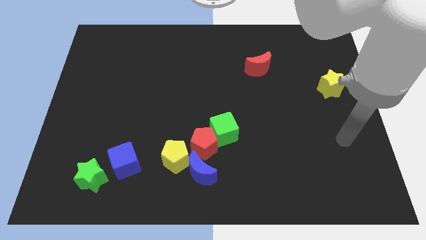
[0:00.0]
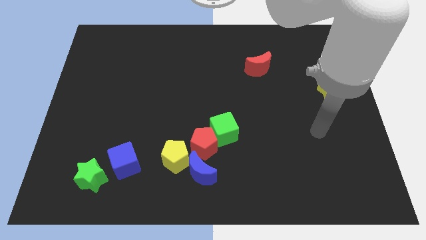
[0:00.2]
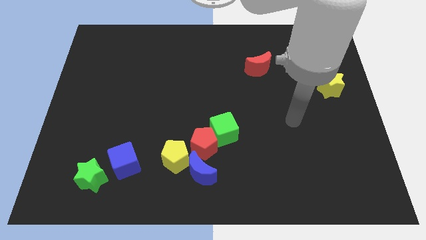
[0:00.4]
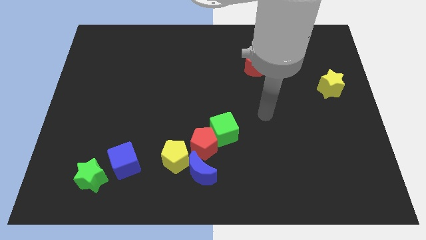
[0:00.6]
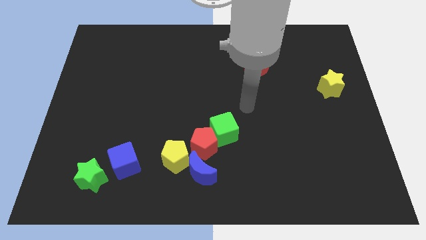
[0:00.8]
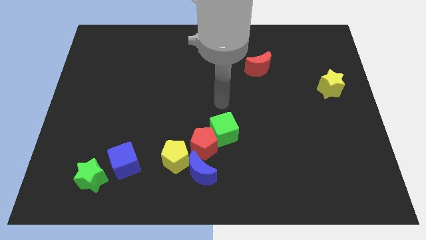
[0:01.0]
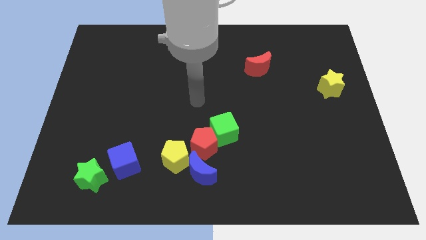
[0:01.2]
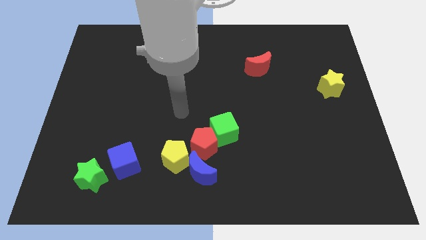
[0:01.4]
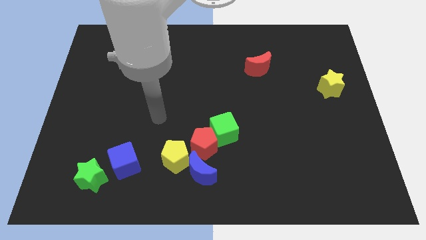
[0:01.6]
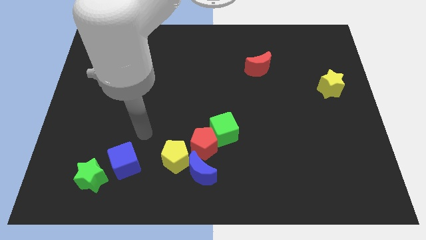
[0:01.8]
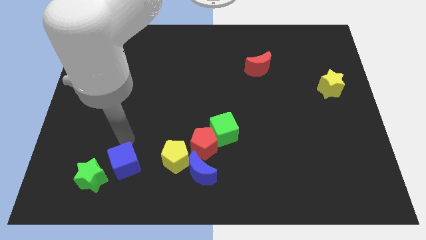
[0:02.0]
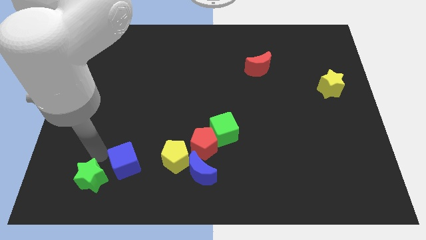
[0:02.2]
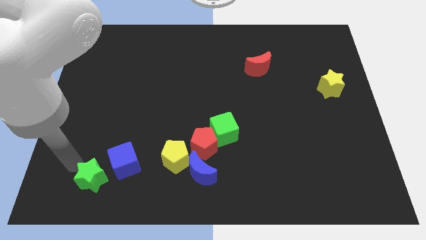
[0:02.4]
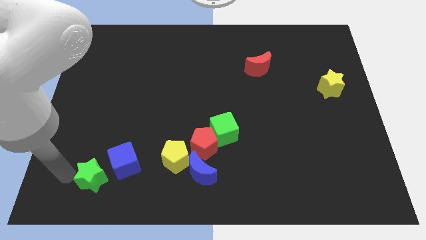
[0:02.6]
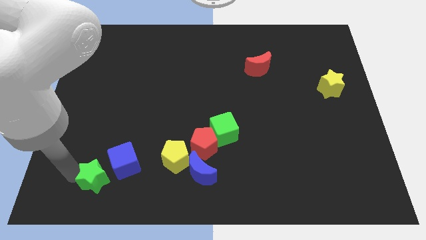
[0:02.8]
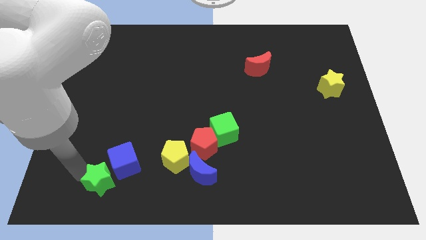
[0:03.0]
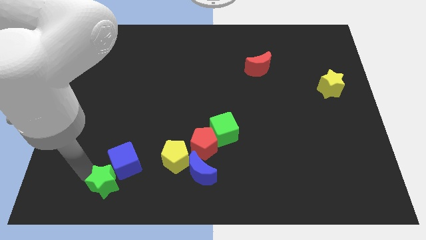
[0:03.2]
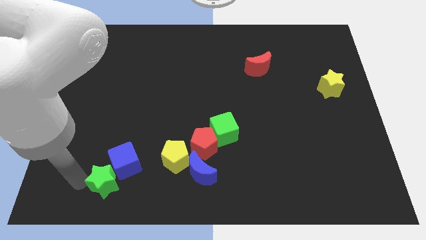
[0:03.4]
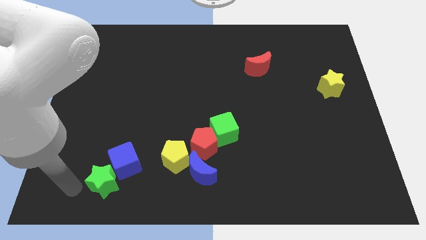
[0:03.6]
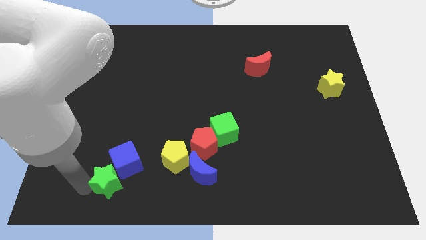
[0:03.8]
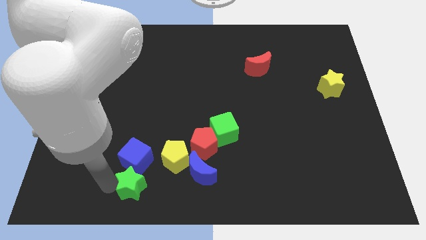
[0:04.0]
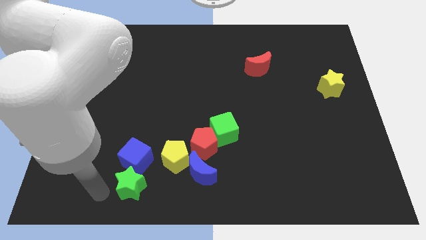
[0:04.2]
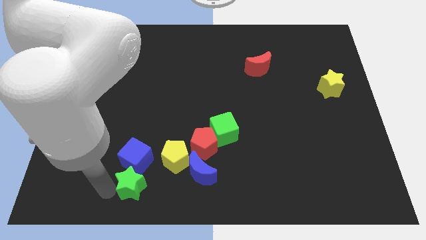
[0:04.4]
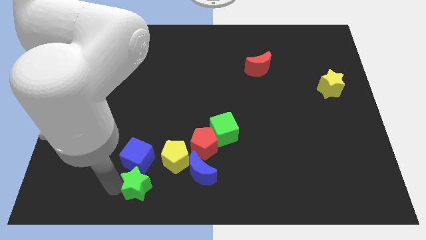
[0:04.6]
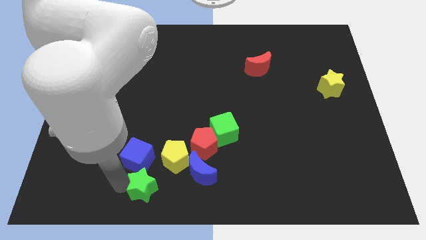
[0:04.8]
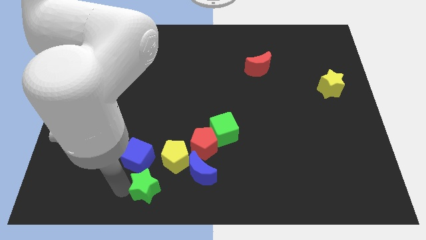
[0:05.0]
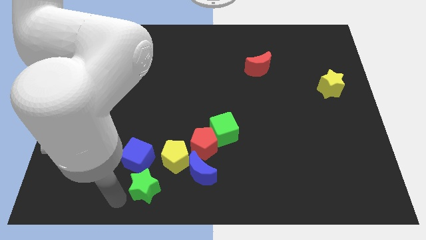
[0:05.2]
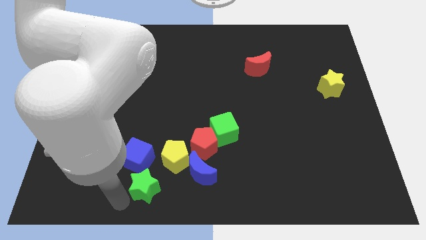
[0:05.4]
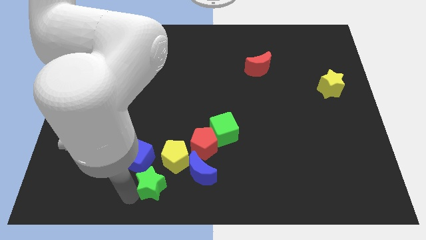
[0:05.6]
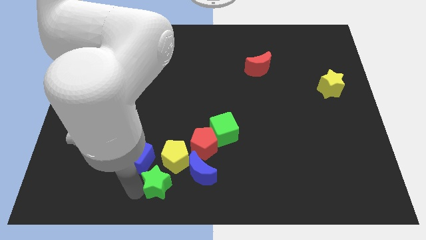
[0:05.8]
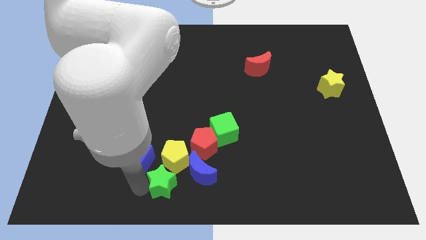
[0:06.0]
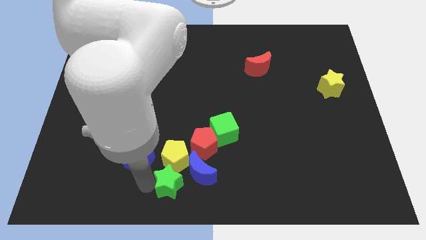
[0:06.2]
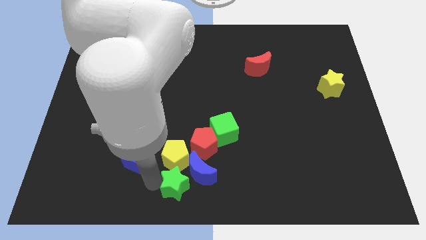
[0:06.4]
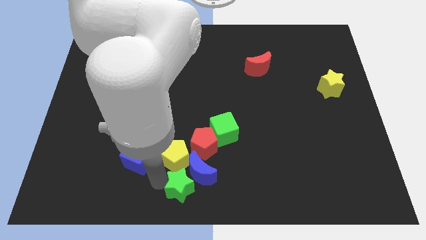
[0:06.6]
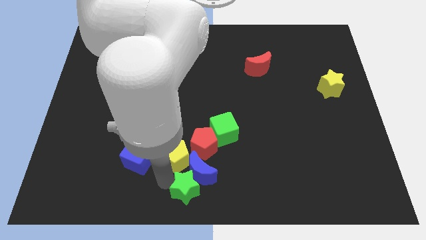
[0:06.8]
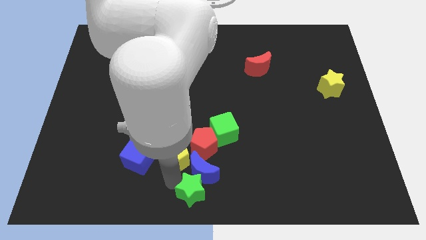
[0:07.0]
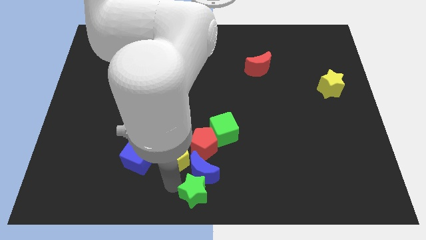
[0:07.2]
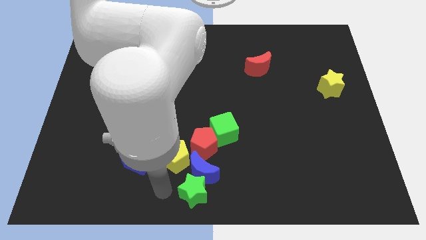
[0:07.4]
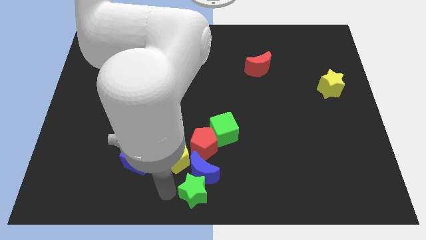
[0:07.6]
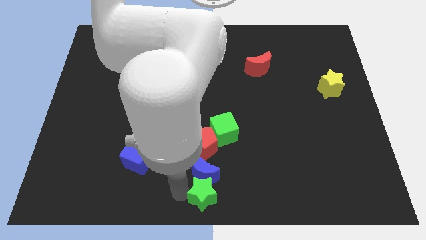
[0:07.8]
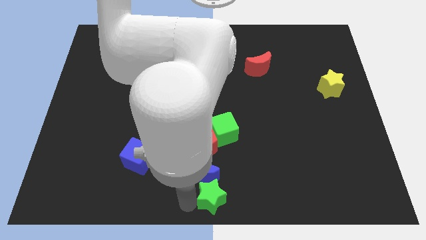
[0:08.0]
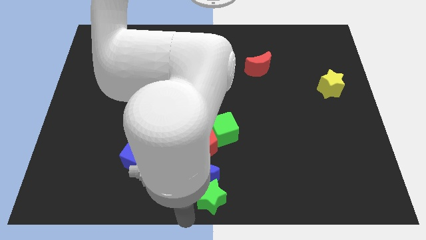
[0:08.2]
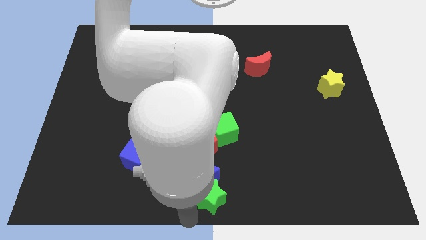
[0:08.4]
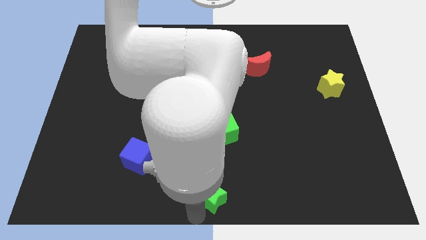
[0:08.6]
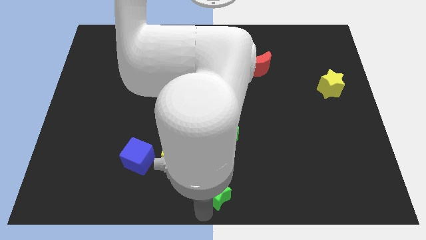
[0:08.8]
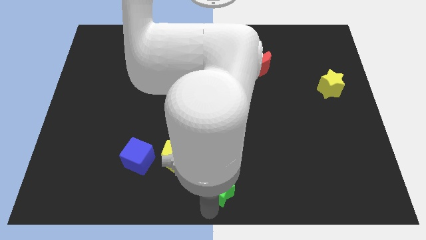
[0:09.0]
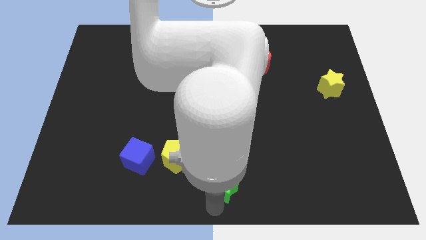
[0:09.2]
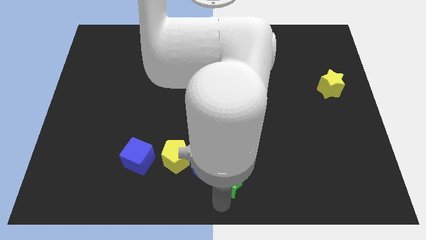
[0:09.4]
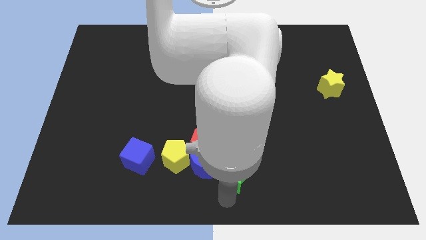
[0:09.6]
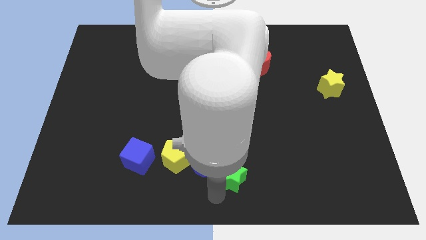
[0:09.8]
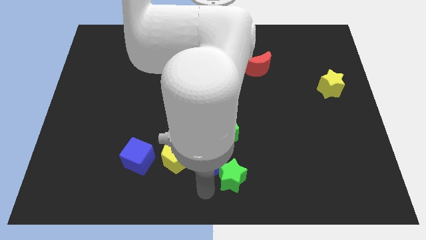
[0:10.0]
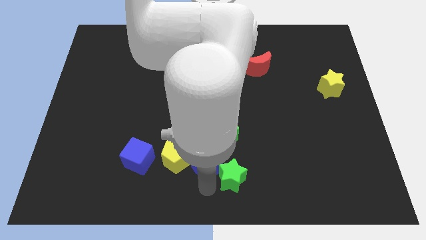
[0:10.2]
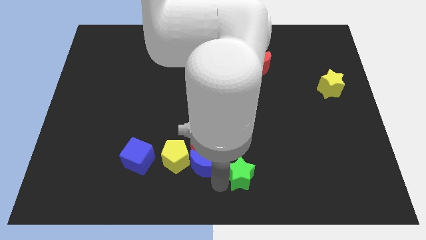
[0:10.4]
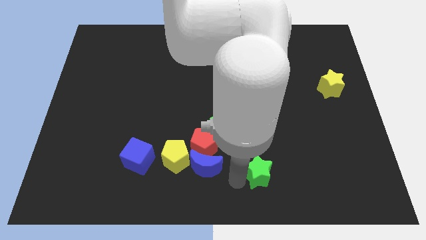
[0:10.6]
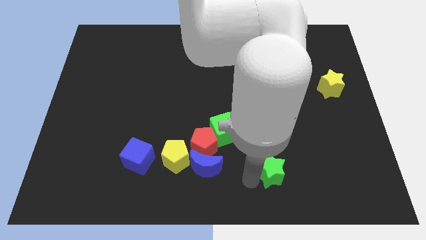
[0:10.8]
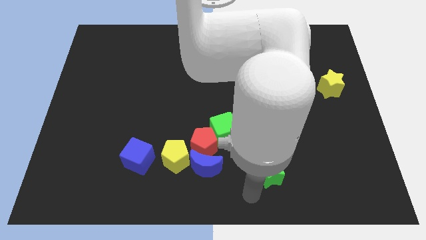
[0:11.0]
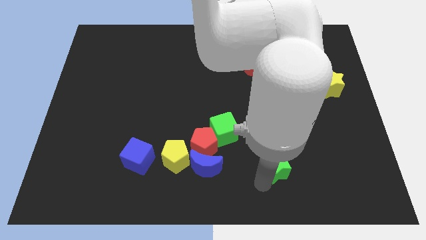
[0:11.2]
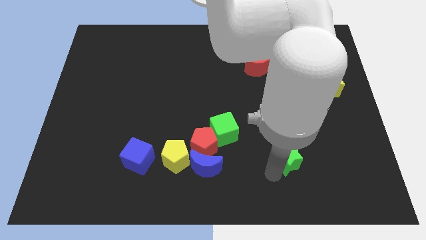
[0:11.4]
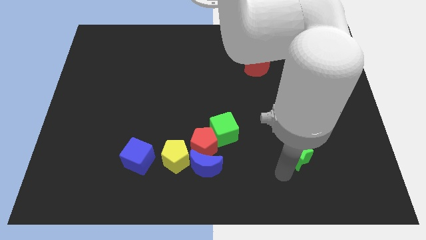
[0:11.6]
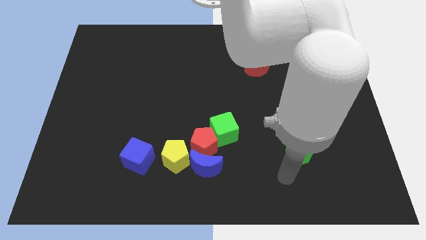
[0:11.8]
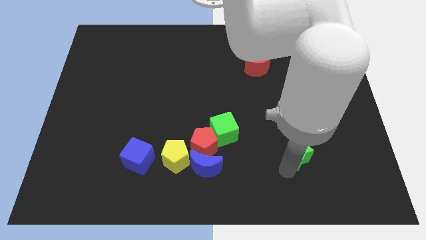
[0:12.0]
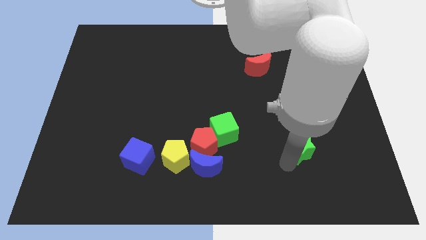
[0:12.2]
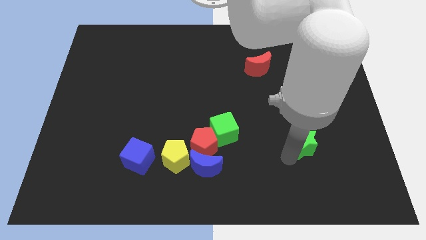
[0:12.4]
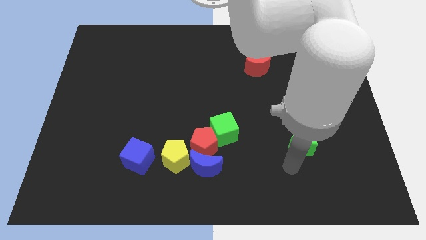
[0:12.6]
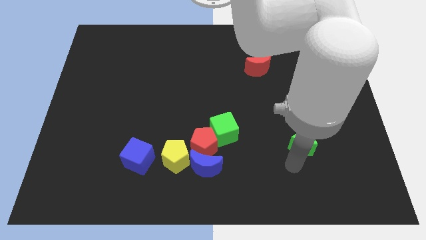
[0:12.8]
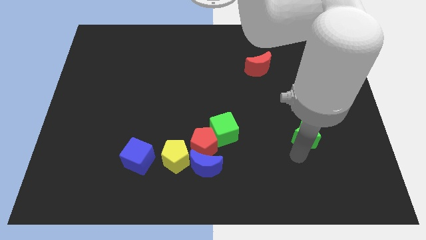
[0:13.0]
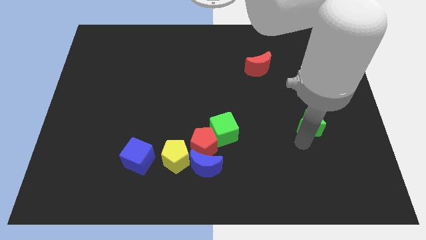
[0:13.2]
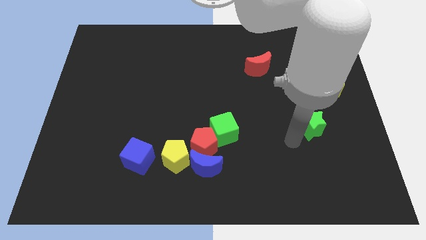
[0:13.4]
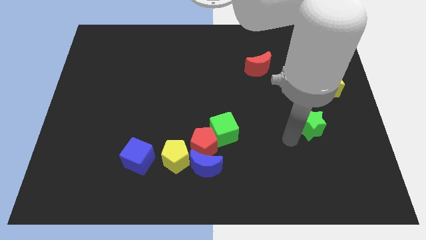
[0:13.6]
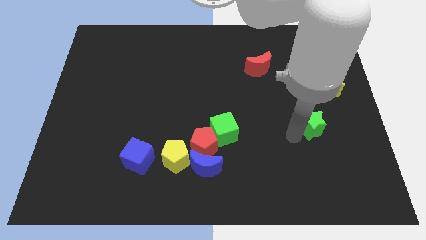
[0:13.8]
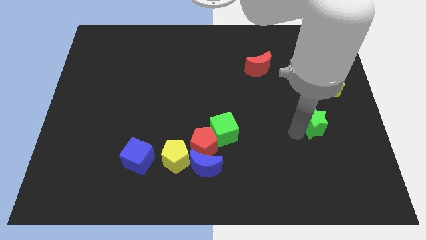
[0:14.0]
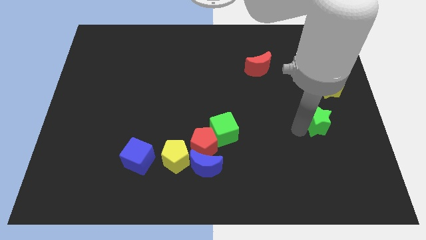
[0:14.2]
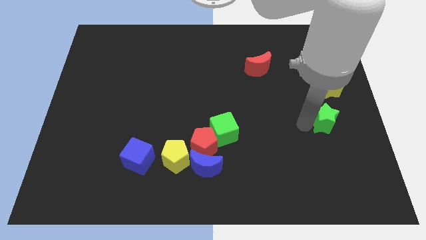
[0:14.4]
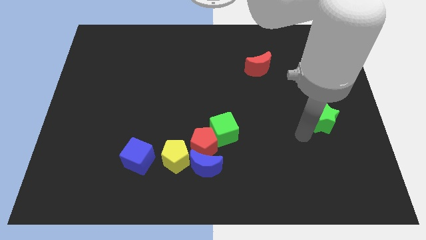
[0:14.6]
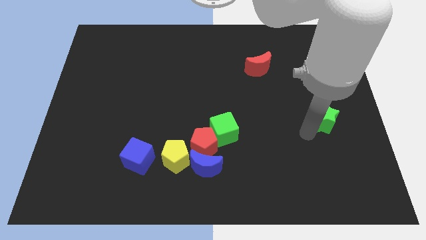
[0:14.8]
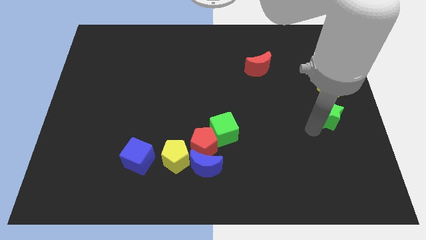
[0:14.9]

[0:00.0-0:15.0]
put the green star to the right side
